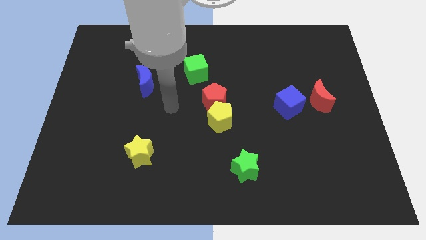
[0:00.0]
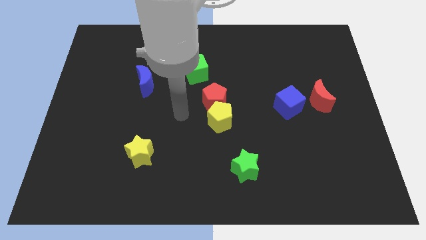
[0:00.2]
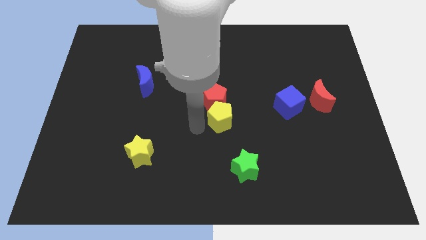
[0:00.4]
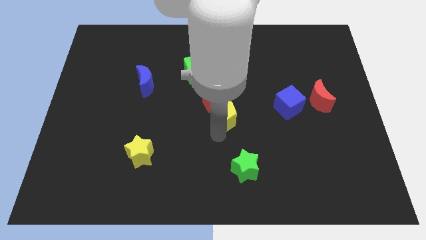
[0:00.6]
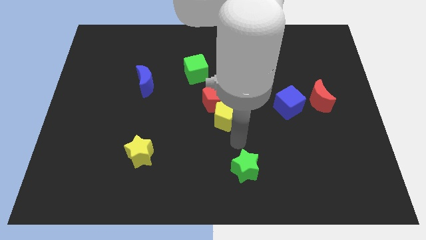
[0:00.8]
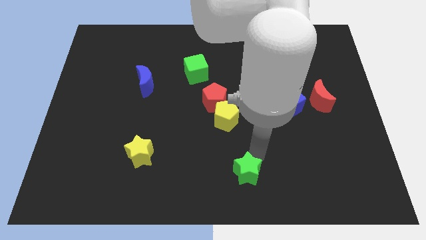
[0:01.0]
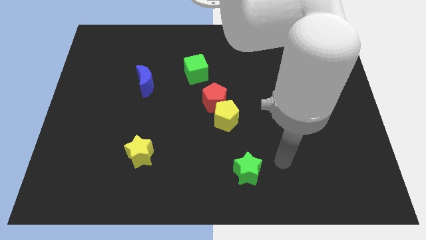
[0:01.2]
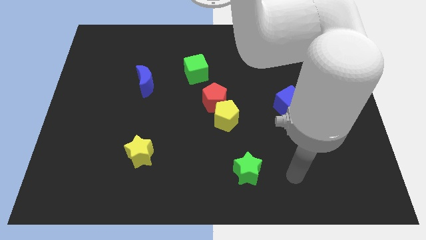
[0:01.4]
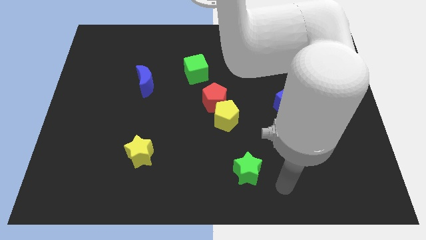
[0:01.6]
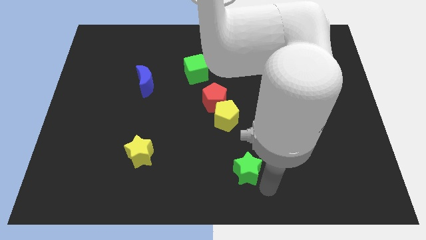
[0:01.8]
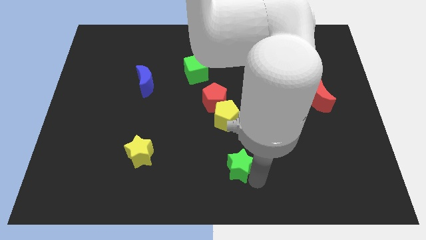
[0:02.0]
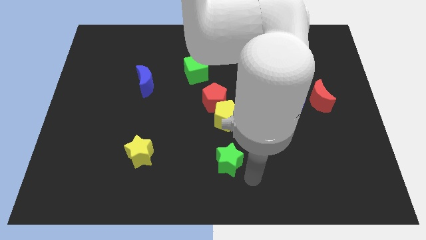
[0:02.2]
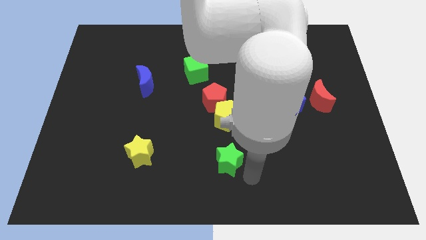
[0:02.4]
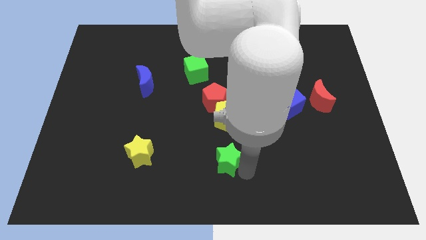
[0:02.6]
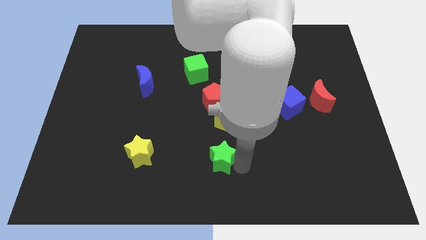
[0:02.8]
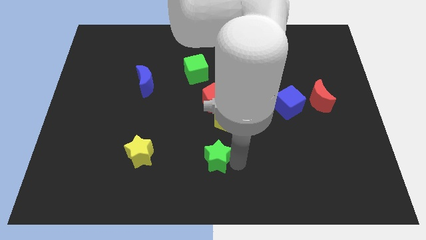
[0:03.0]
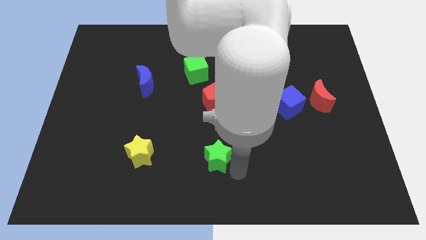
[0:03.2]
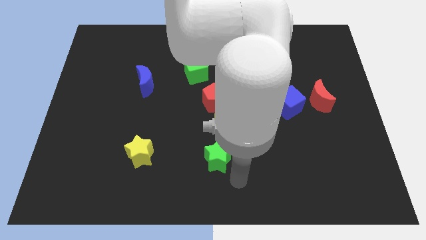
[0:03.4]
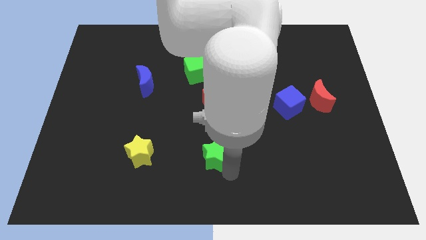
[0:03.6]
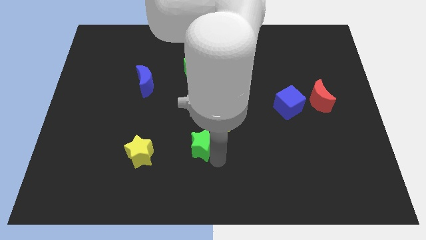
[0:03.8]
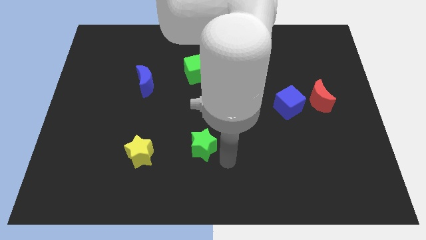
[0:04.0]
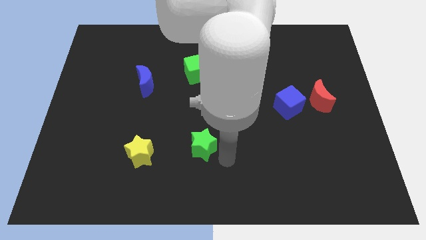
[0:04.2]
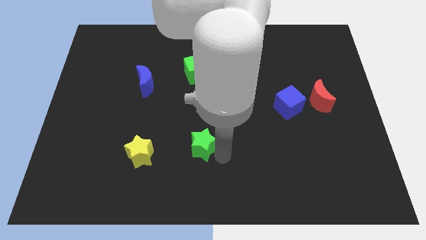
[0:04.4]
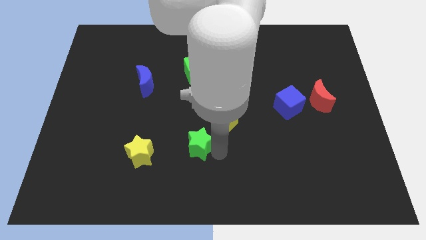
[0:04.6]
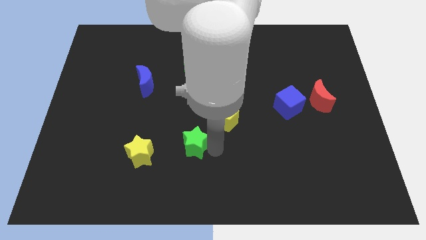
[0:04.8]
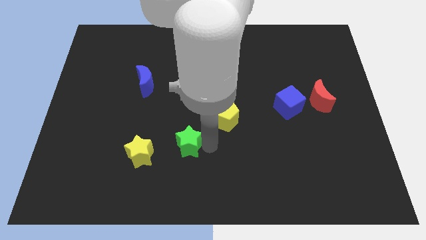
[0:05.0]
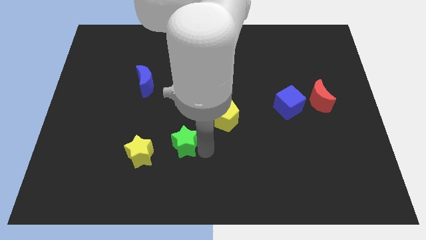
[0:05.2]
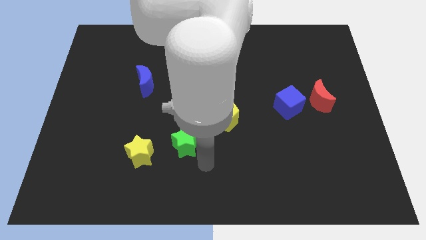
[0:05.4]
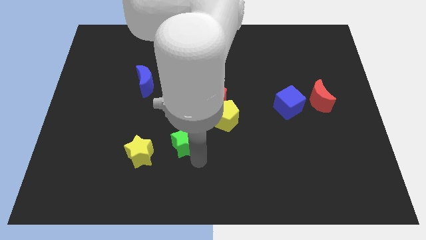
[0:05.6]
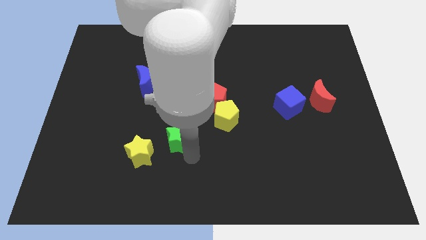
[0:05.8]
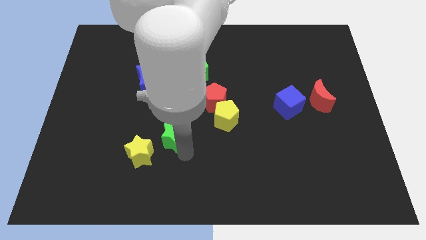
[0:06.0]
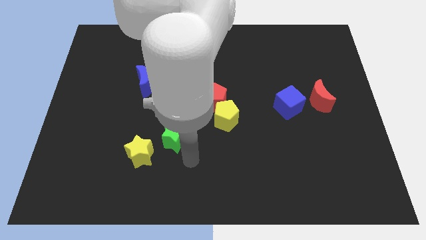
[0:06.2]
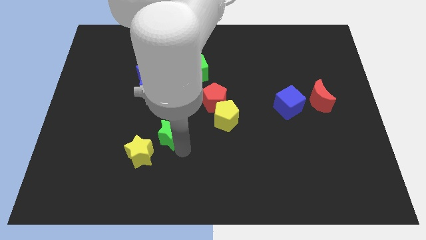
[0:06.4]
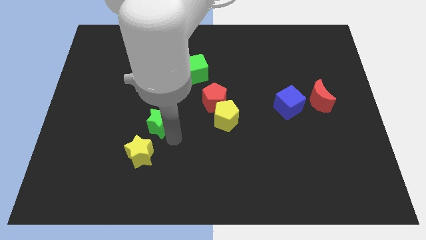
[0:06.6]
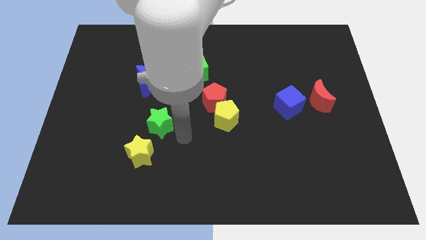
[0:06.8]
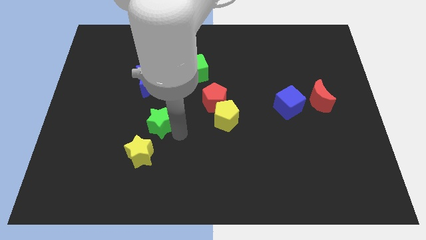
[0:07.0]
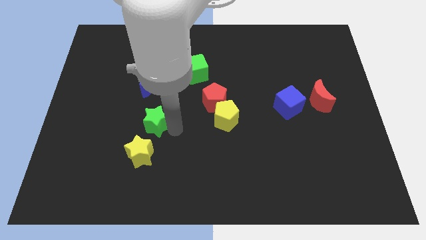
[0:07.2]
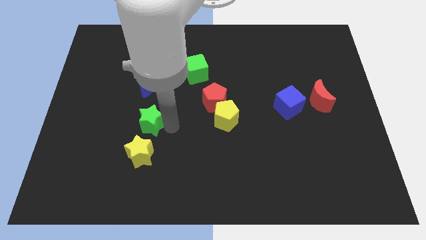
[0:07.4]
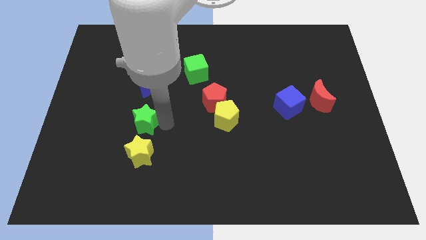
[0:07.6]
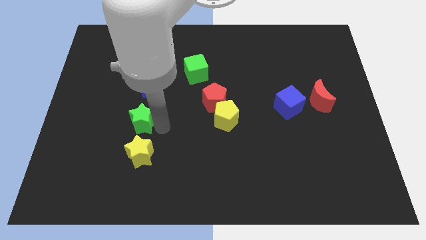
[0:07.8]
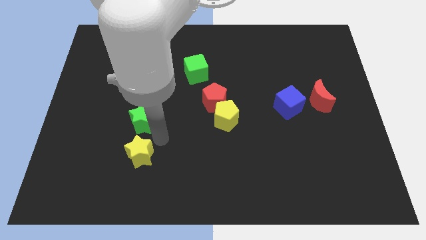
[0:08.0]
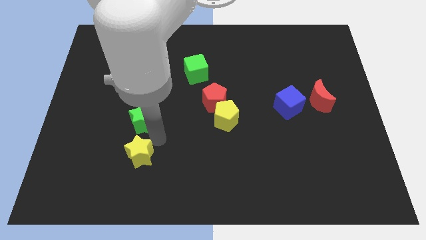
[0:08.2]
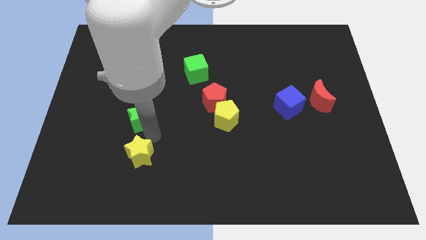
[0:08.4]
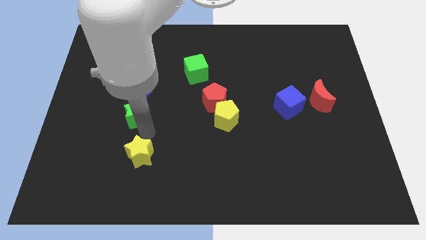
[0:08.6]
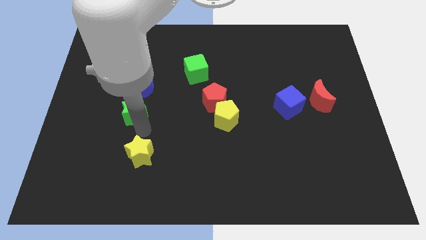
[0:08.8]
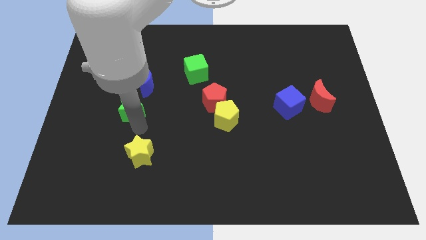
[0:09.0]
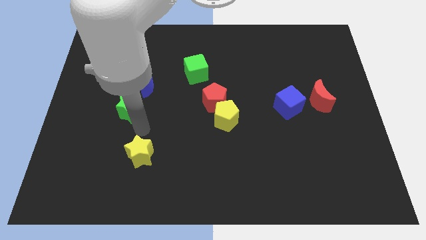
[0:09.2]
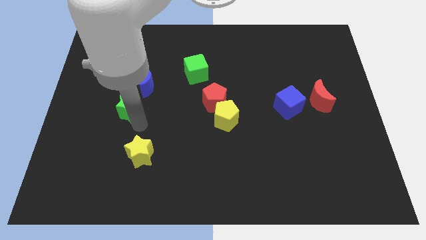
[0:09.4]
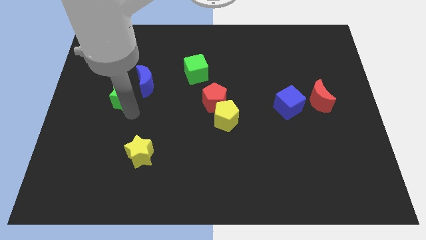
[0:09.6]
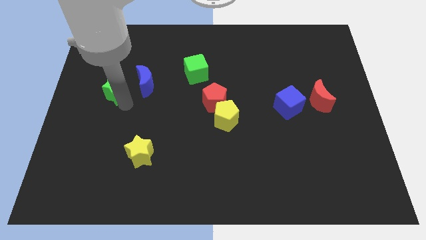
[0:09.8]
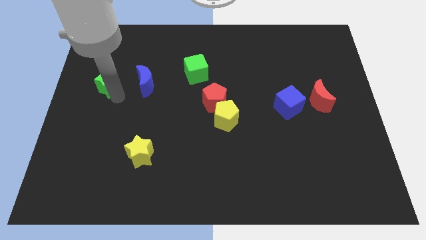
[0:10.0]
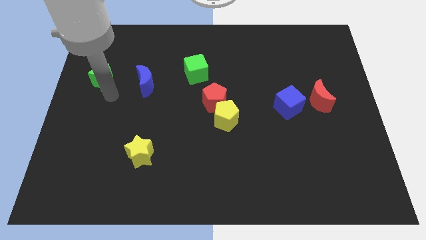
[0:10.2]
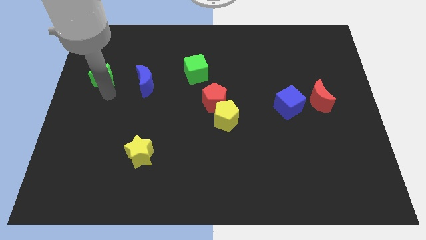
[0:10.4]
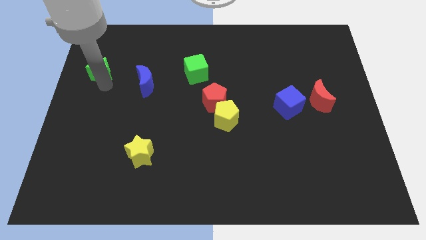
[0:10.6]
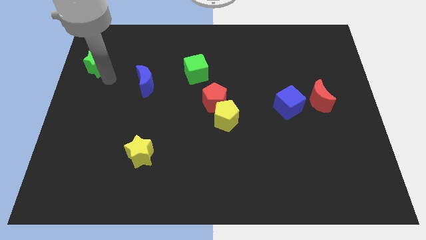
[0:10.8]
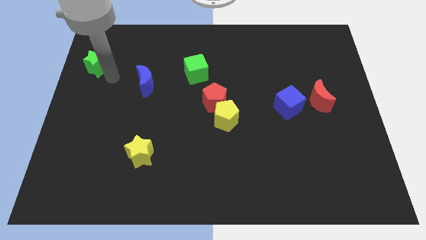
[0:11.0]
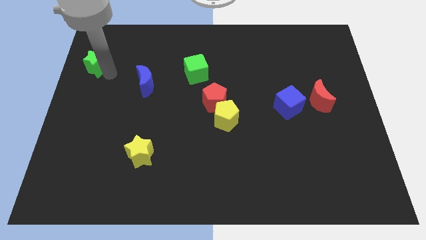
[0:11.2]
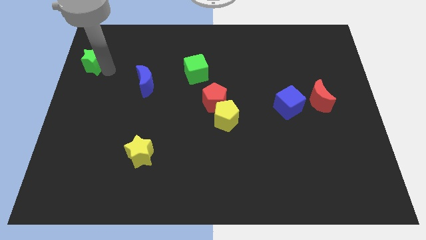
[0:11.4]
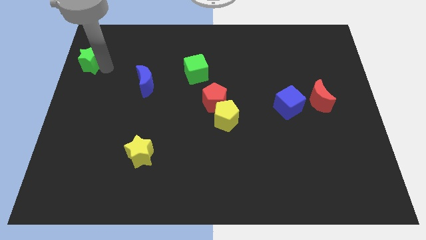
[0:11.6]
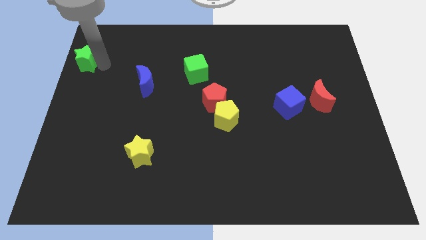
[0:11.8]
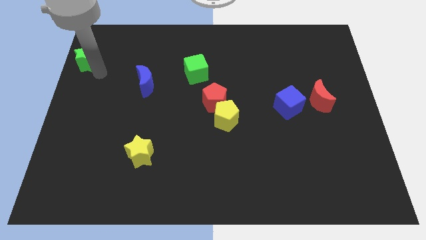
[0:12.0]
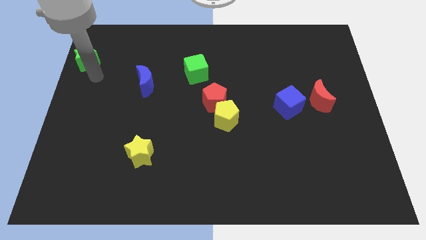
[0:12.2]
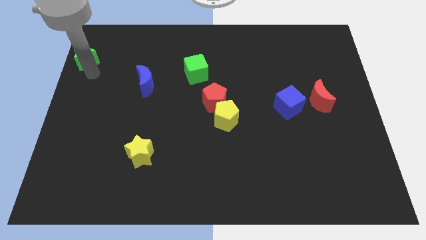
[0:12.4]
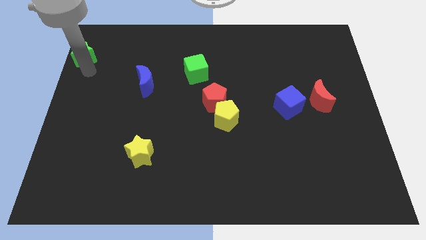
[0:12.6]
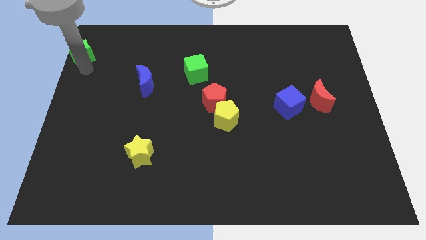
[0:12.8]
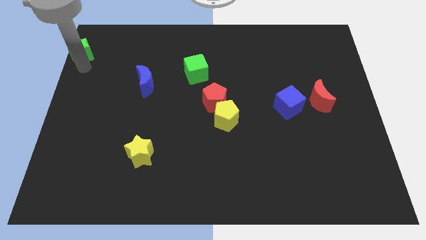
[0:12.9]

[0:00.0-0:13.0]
push the green star to the top left
